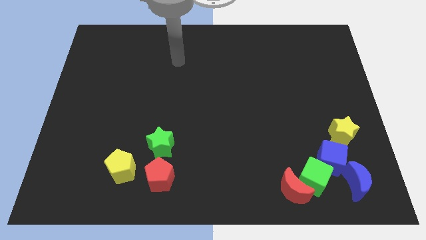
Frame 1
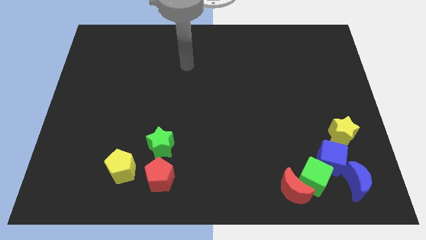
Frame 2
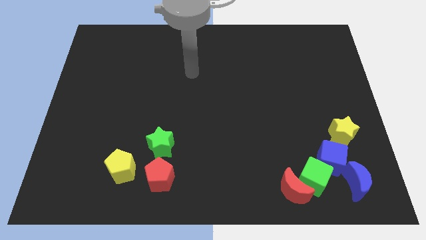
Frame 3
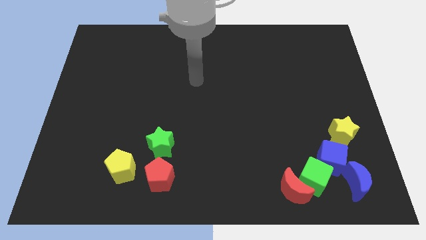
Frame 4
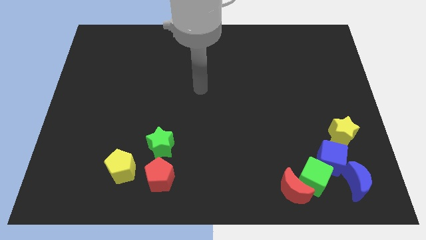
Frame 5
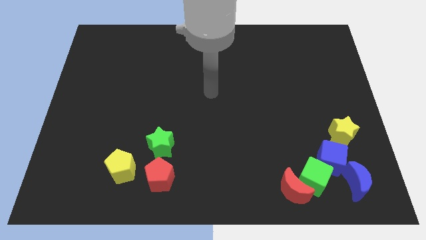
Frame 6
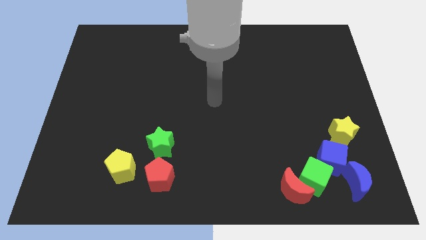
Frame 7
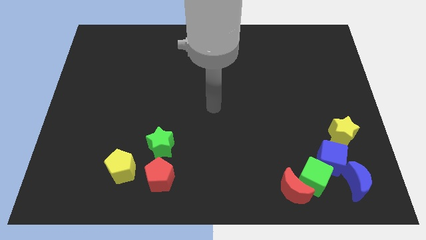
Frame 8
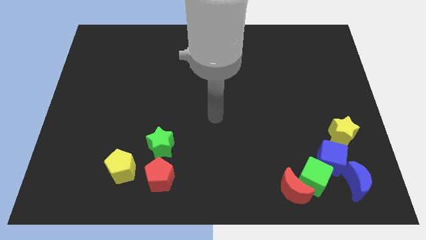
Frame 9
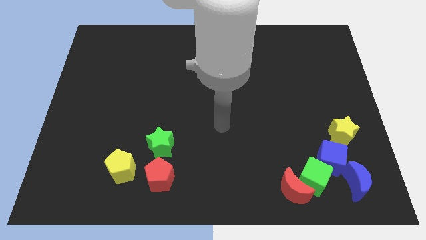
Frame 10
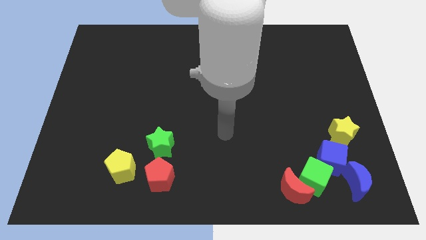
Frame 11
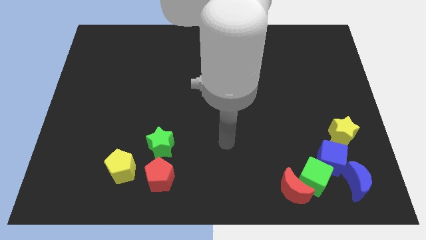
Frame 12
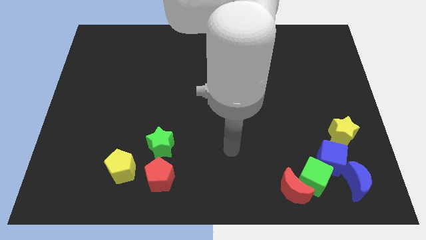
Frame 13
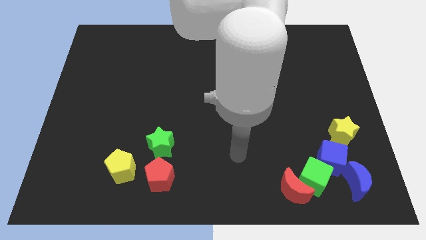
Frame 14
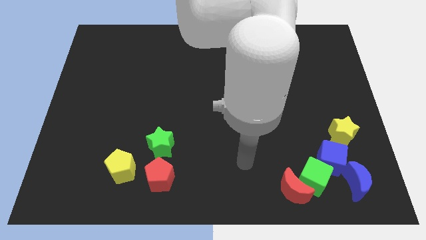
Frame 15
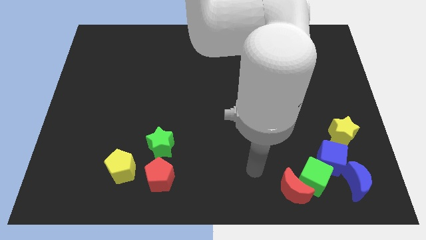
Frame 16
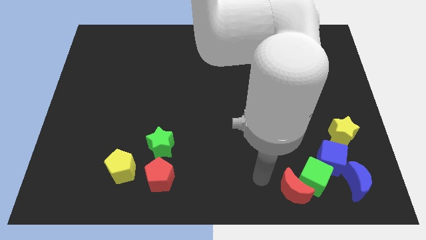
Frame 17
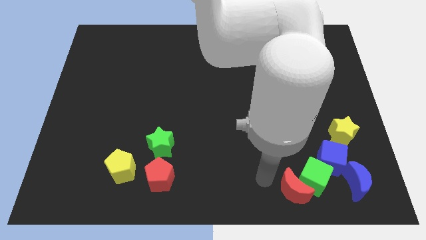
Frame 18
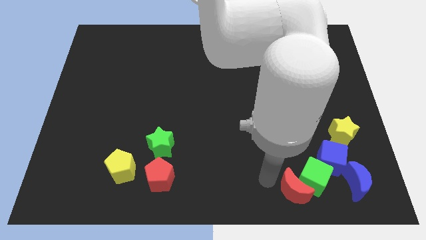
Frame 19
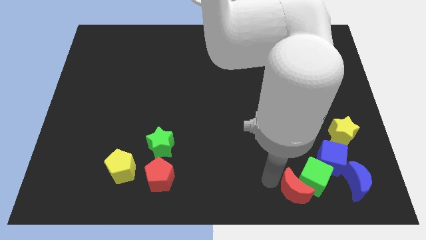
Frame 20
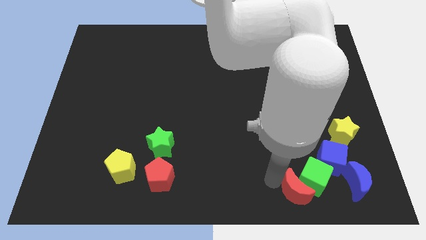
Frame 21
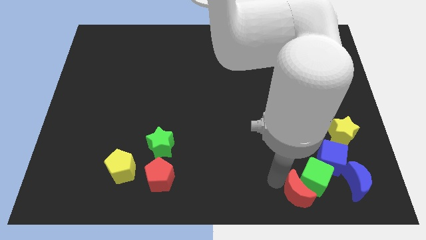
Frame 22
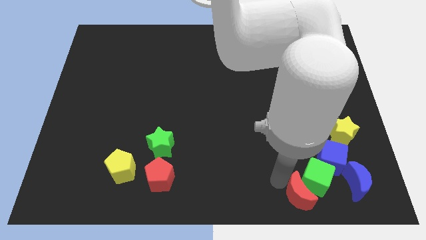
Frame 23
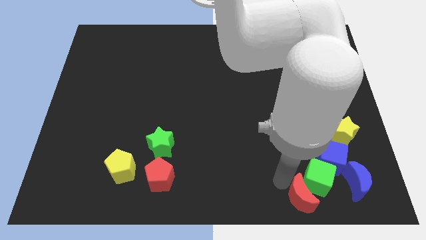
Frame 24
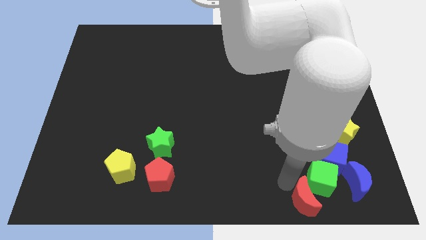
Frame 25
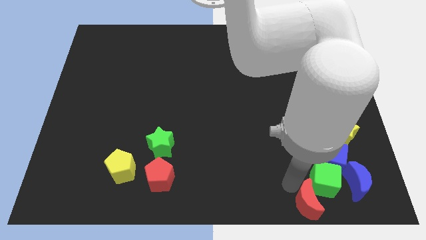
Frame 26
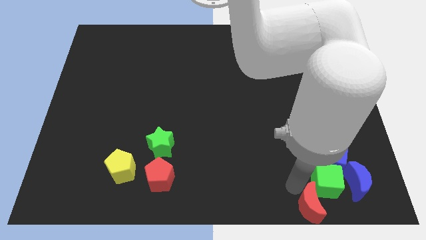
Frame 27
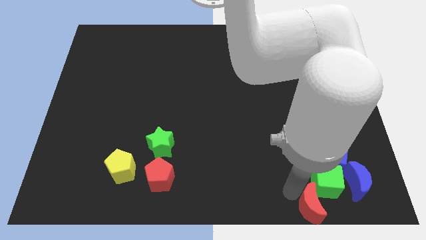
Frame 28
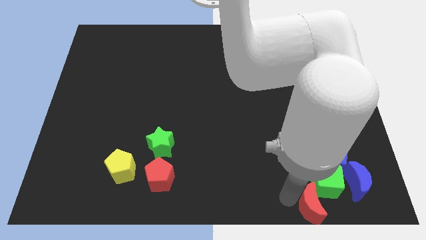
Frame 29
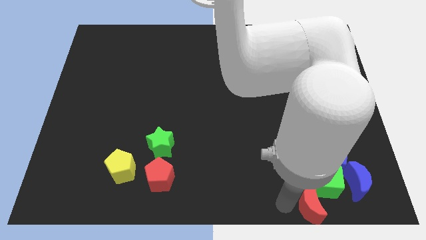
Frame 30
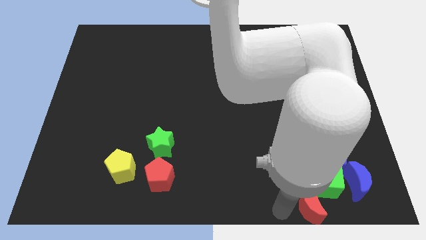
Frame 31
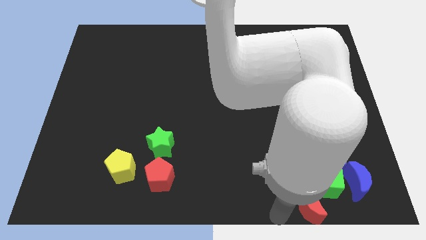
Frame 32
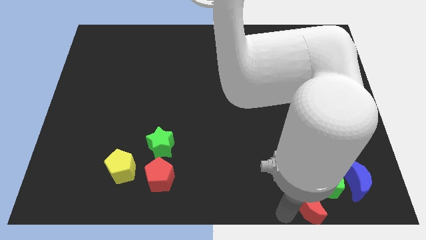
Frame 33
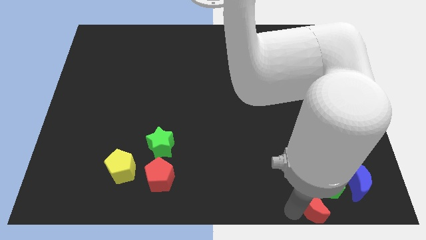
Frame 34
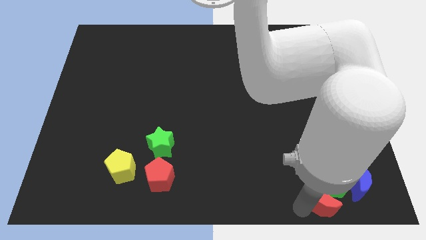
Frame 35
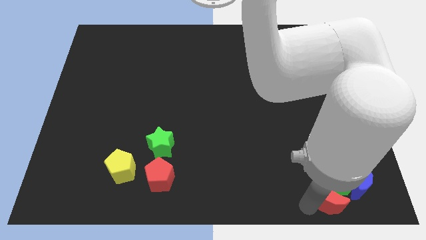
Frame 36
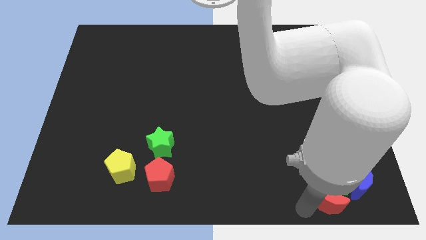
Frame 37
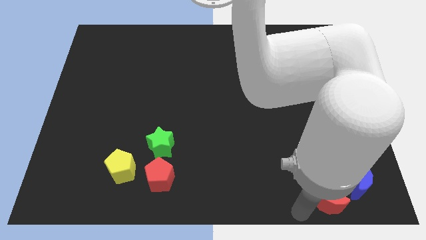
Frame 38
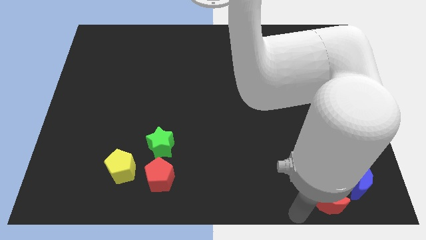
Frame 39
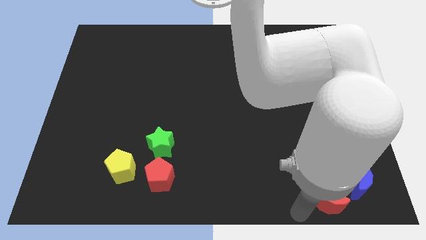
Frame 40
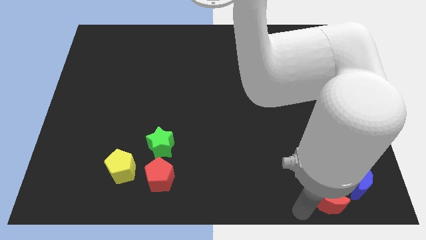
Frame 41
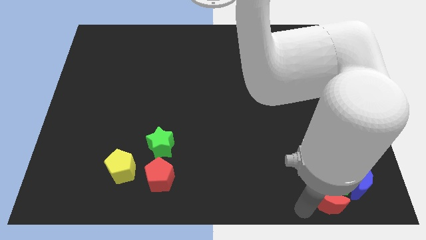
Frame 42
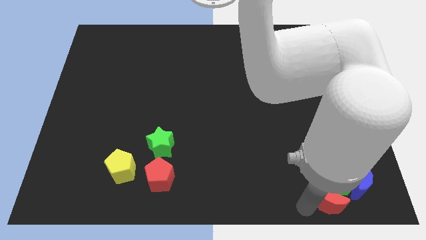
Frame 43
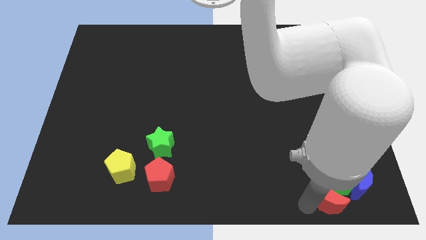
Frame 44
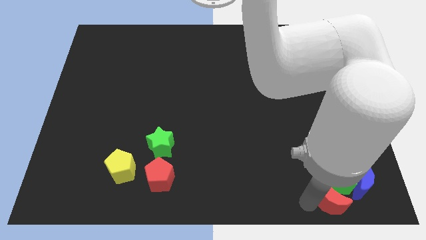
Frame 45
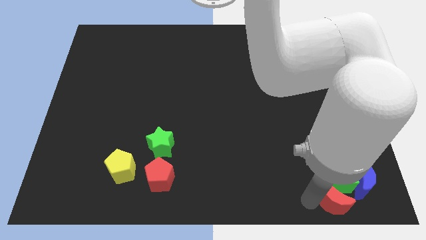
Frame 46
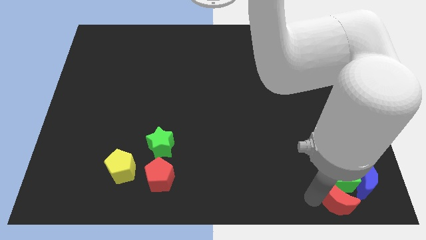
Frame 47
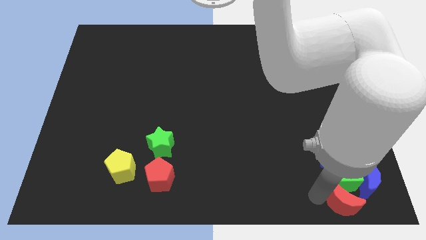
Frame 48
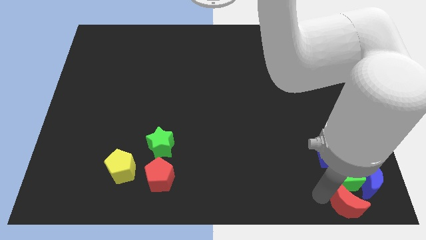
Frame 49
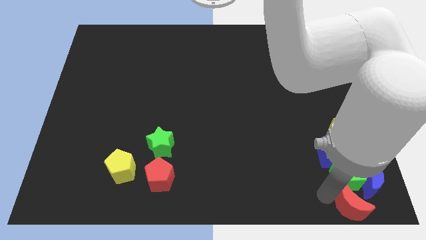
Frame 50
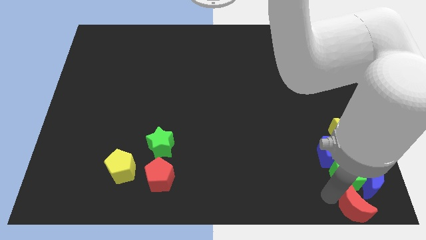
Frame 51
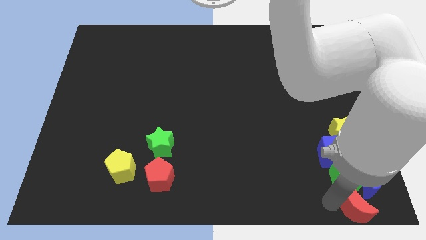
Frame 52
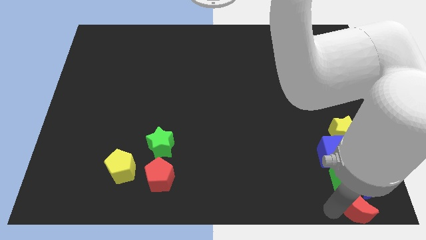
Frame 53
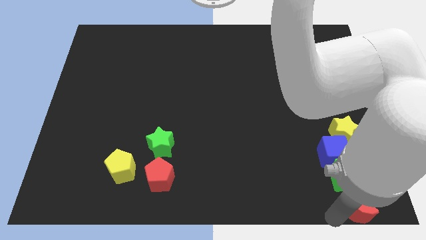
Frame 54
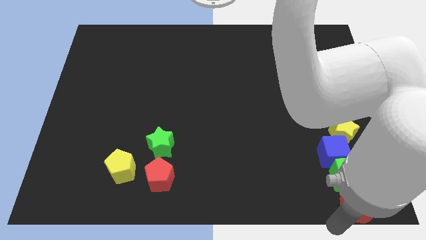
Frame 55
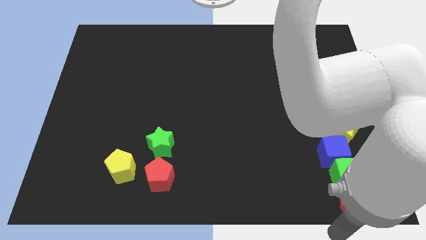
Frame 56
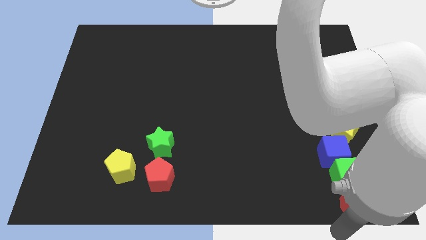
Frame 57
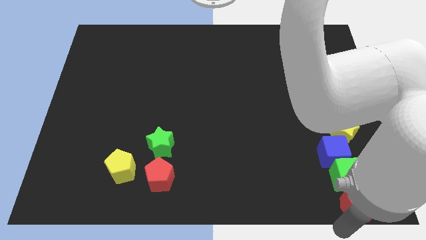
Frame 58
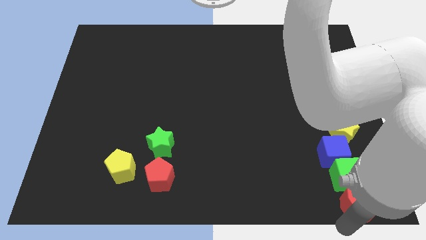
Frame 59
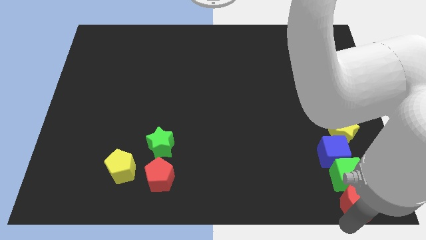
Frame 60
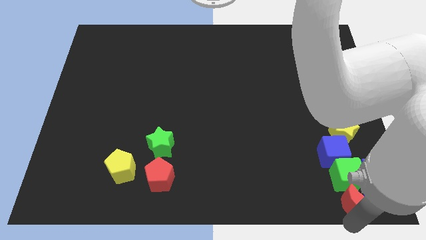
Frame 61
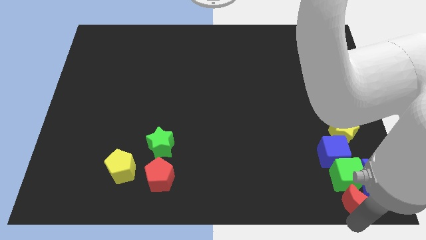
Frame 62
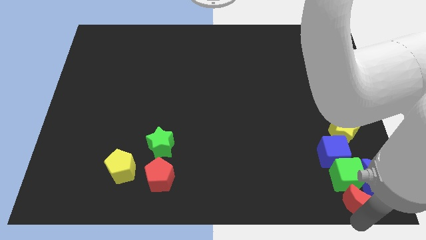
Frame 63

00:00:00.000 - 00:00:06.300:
put the red moon close to the blue moon

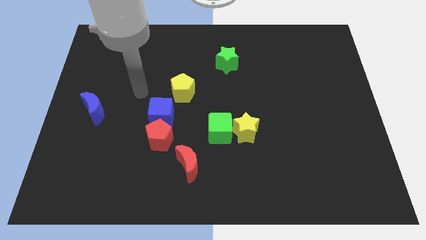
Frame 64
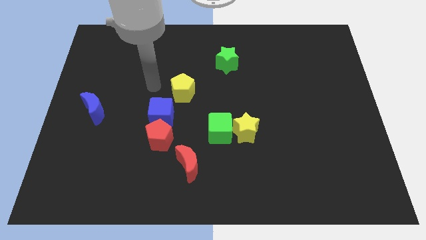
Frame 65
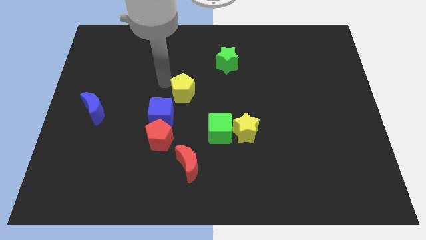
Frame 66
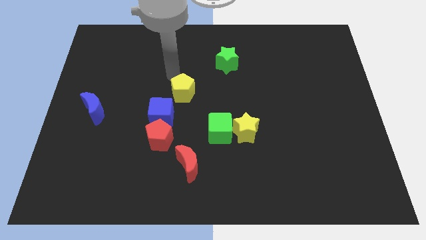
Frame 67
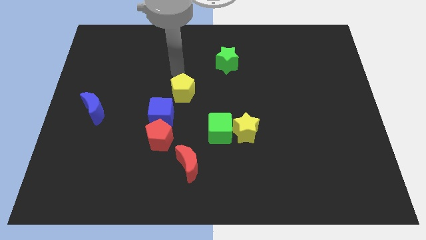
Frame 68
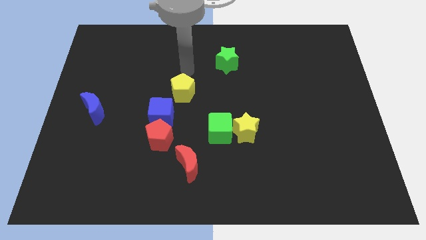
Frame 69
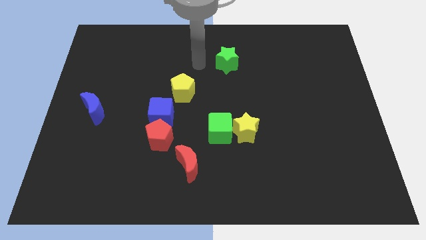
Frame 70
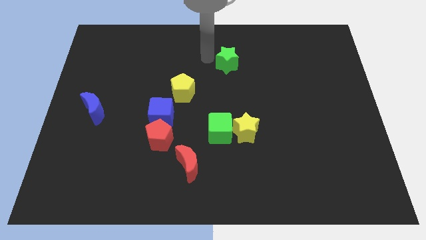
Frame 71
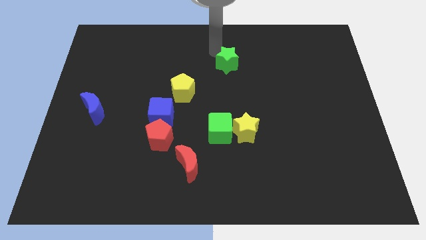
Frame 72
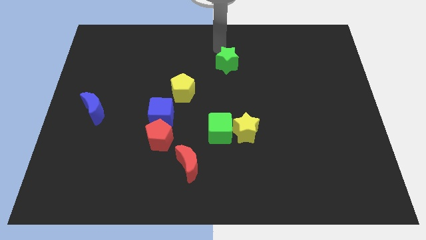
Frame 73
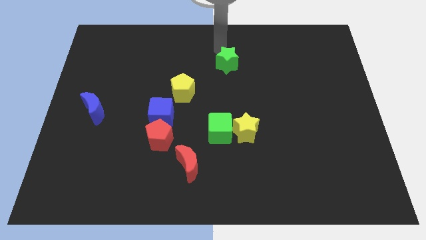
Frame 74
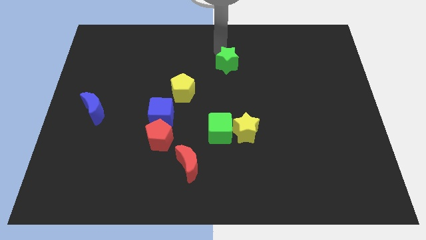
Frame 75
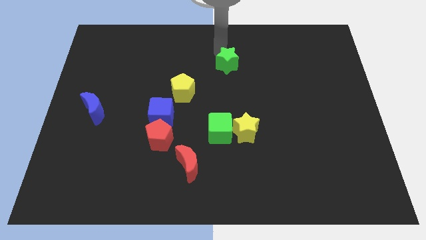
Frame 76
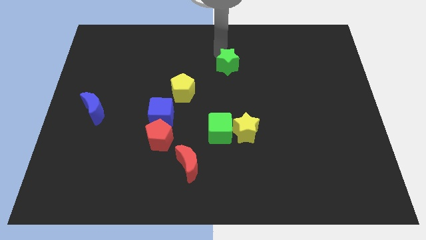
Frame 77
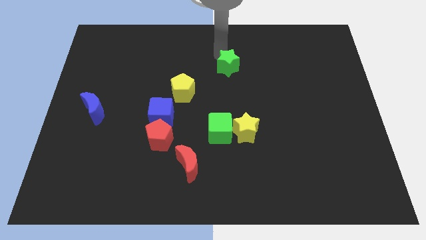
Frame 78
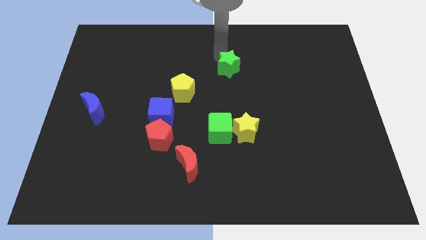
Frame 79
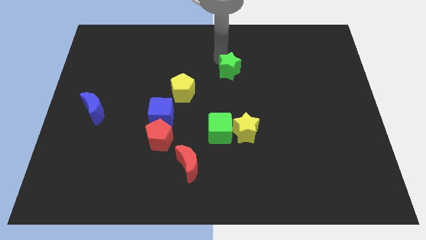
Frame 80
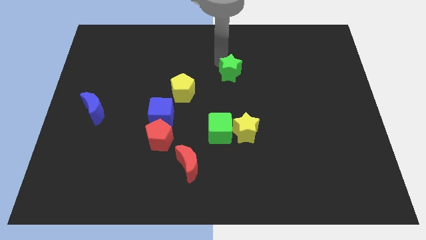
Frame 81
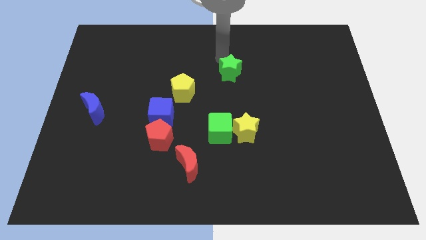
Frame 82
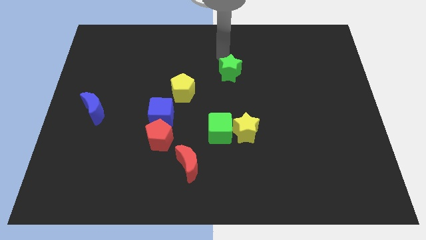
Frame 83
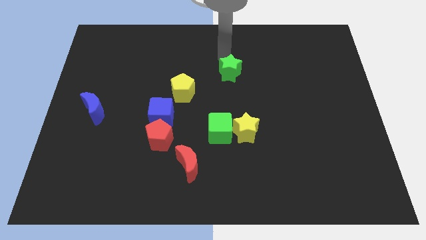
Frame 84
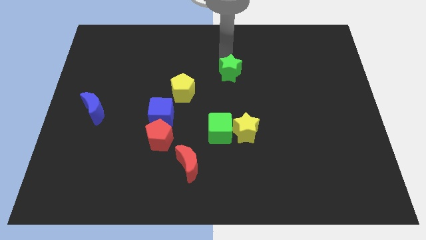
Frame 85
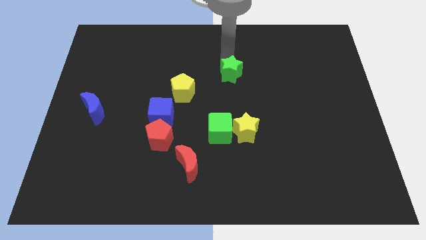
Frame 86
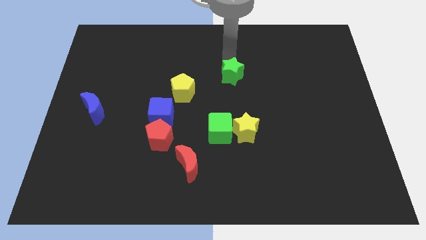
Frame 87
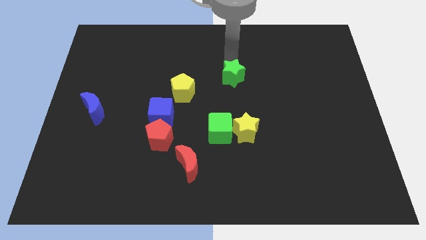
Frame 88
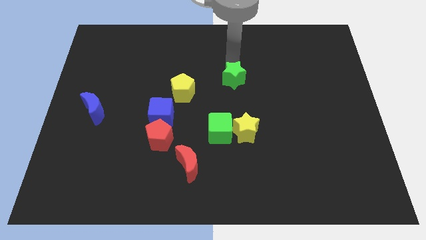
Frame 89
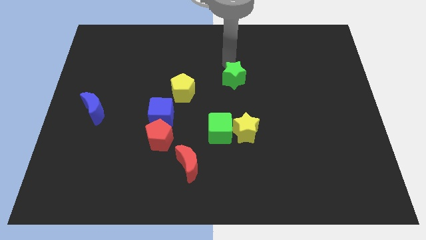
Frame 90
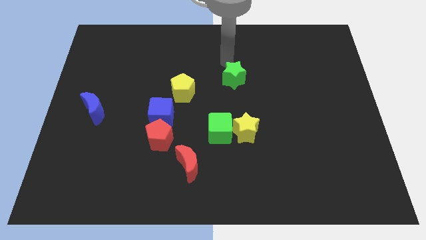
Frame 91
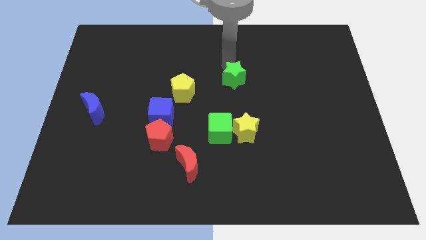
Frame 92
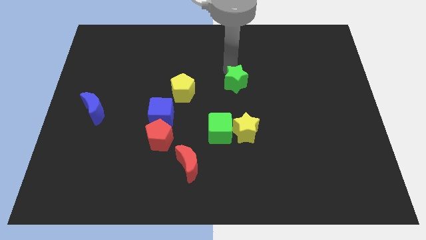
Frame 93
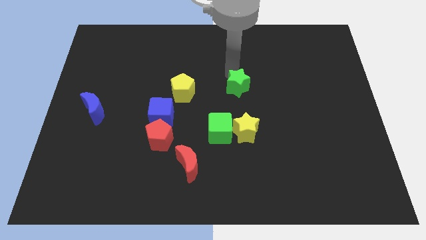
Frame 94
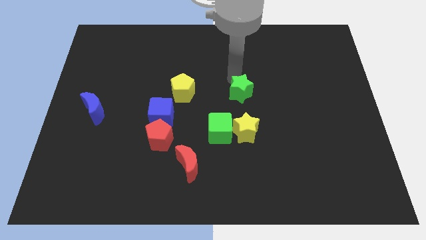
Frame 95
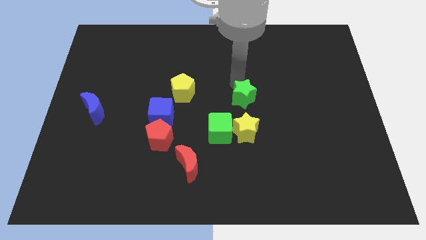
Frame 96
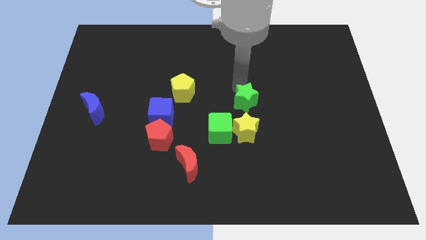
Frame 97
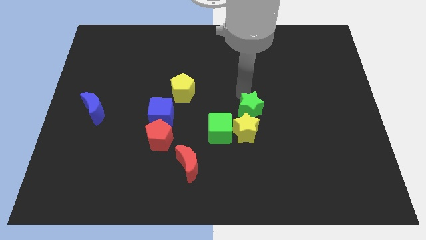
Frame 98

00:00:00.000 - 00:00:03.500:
push the green star next to the yellow star
